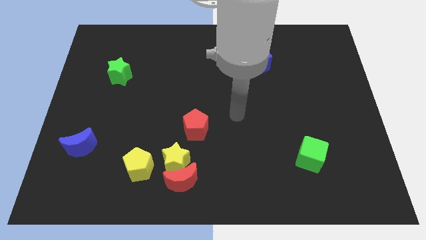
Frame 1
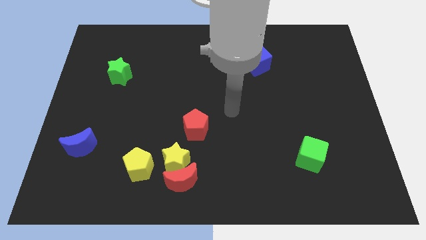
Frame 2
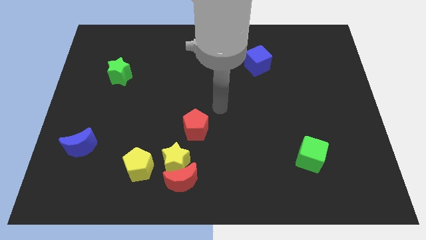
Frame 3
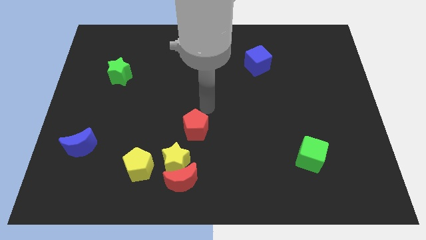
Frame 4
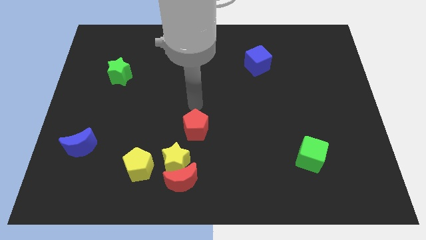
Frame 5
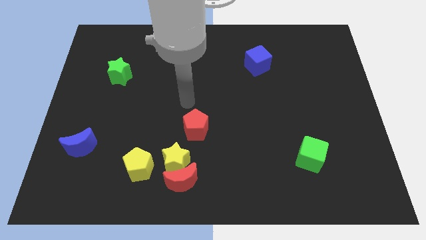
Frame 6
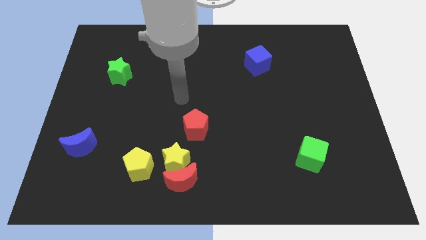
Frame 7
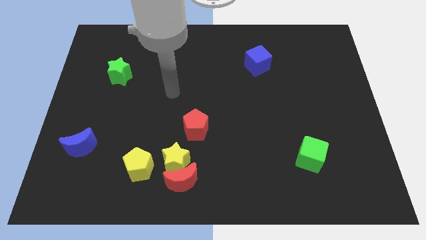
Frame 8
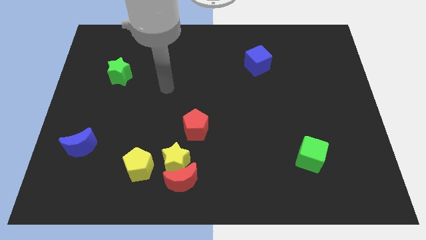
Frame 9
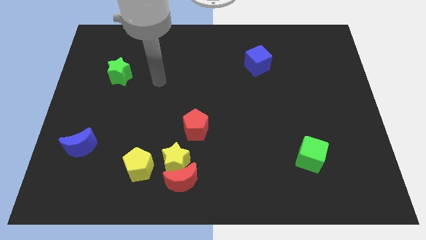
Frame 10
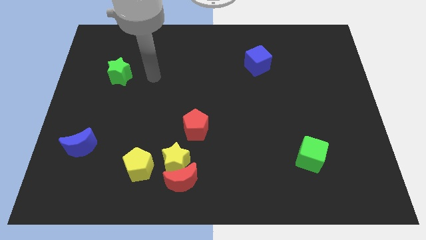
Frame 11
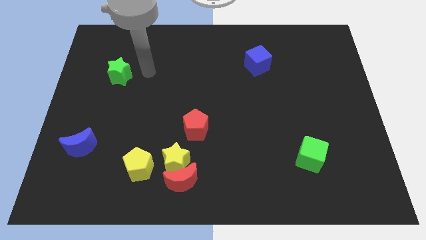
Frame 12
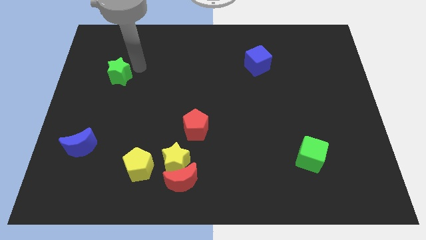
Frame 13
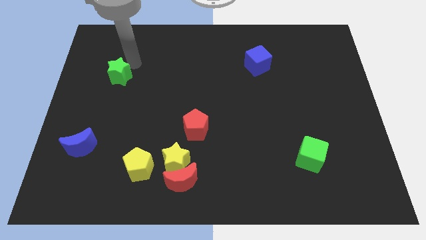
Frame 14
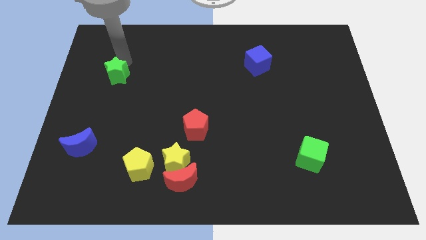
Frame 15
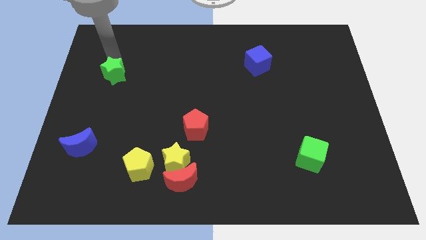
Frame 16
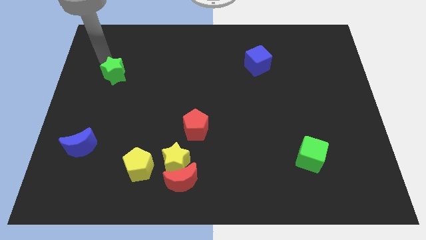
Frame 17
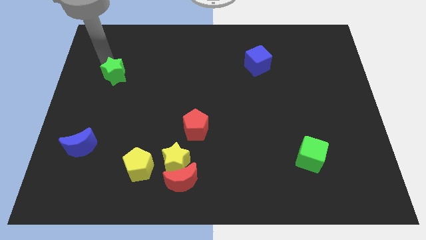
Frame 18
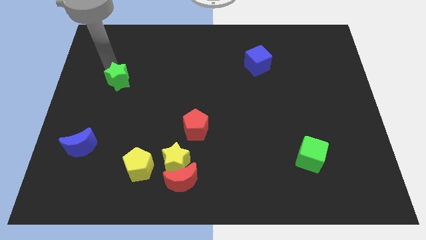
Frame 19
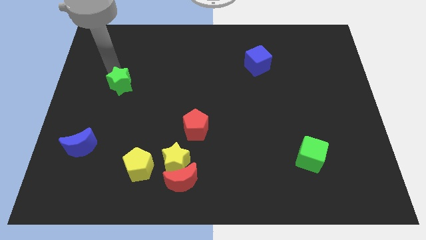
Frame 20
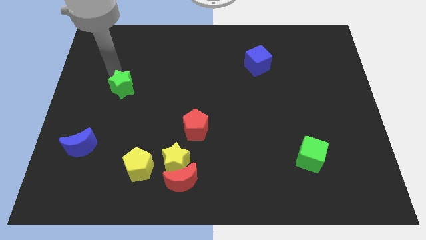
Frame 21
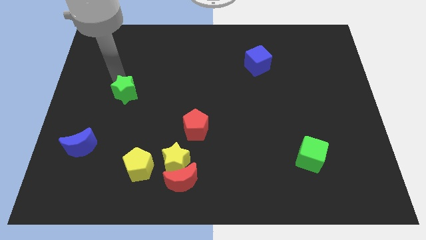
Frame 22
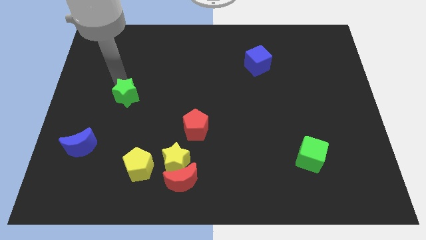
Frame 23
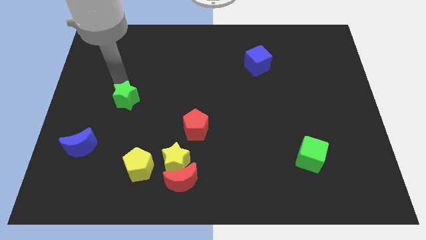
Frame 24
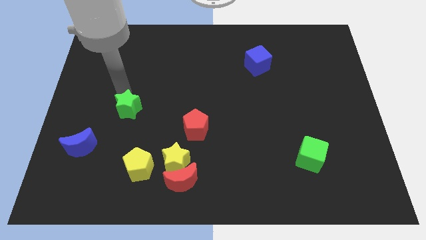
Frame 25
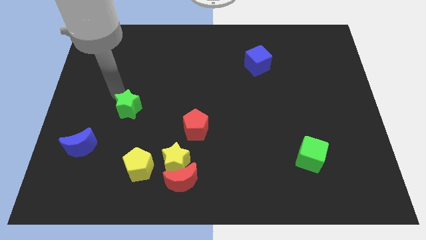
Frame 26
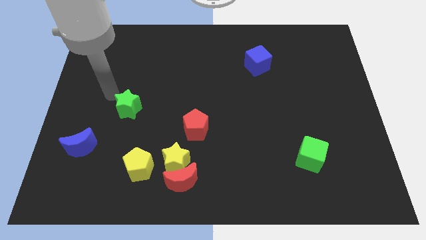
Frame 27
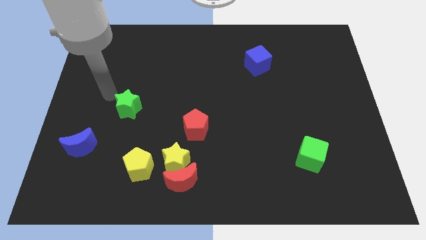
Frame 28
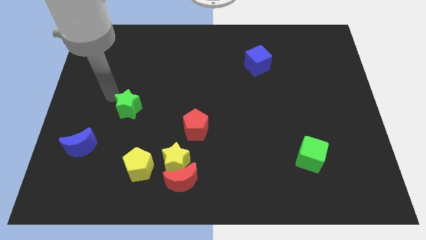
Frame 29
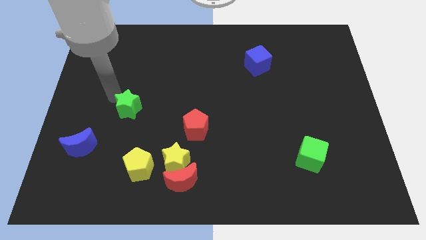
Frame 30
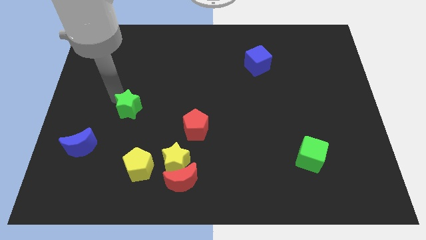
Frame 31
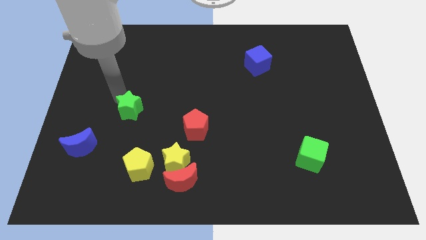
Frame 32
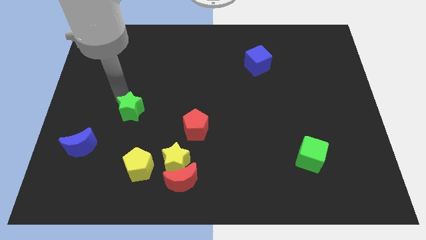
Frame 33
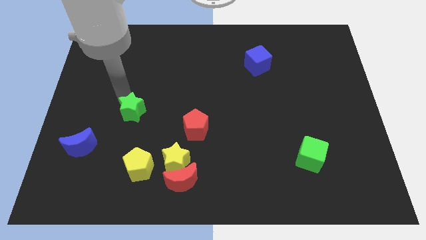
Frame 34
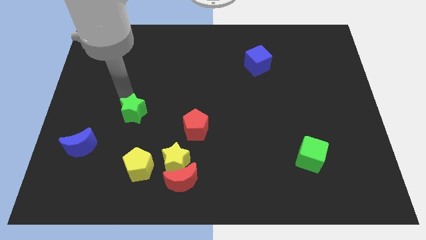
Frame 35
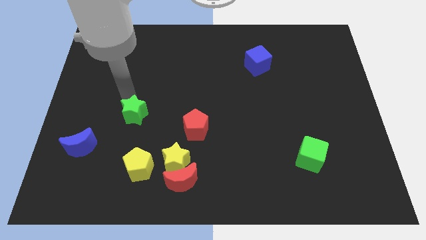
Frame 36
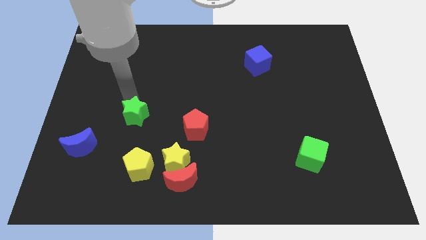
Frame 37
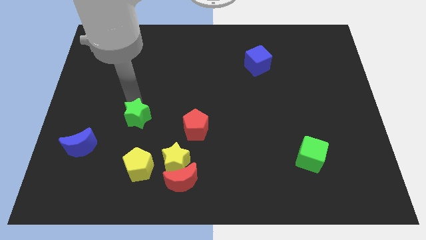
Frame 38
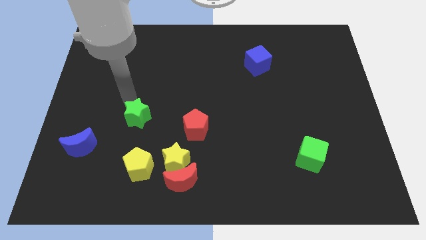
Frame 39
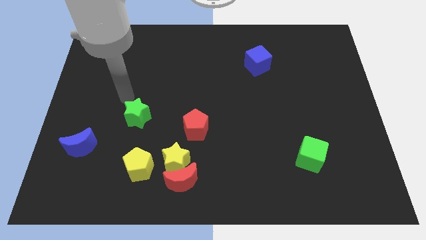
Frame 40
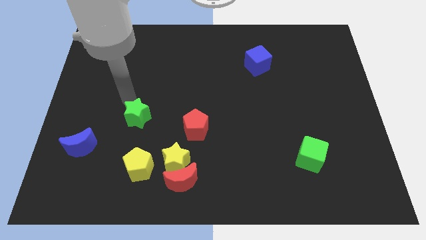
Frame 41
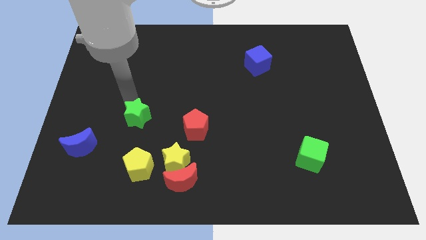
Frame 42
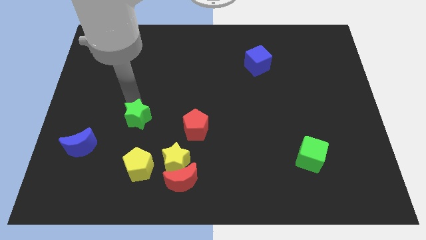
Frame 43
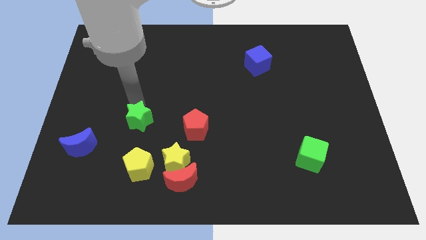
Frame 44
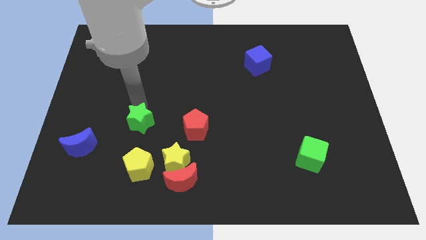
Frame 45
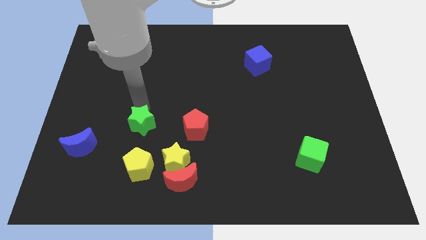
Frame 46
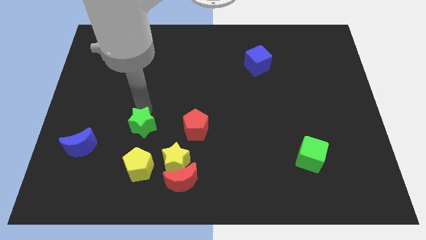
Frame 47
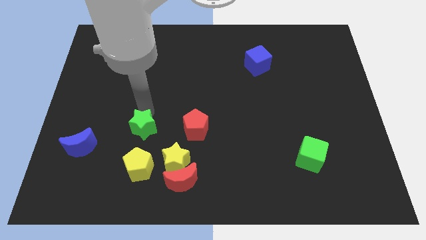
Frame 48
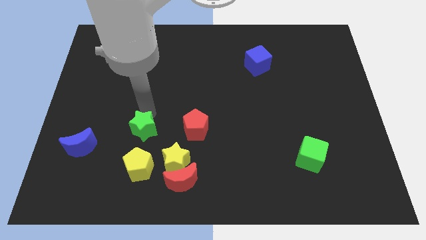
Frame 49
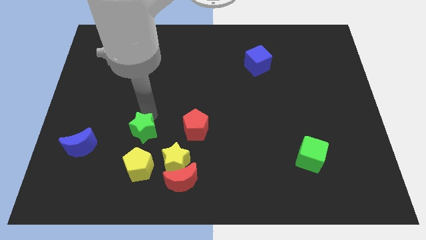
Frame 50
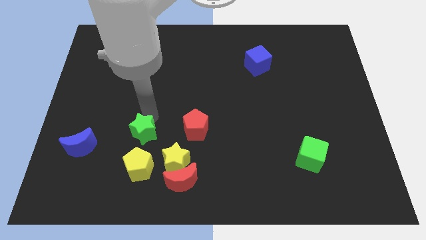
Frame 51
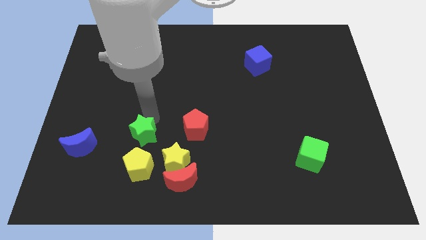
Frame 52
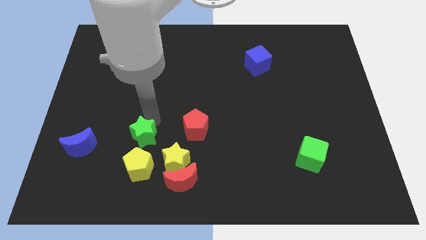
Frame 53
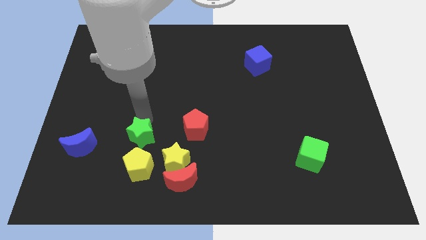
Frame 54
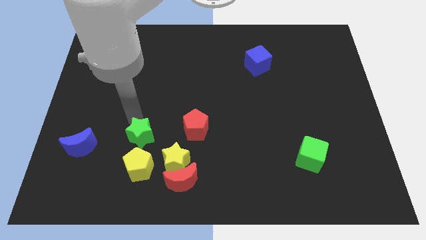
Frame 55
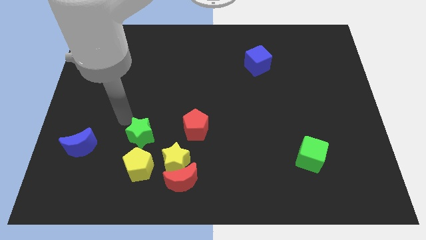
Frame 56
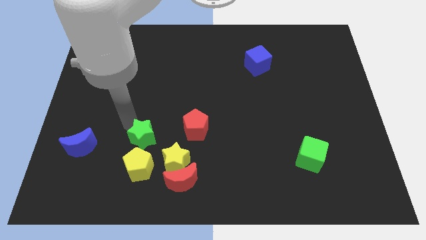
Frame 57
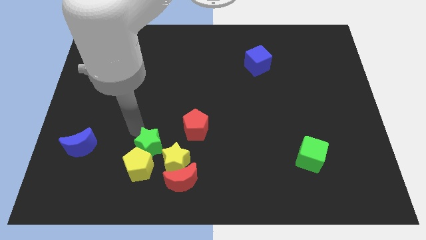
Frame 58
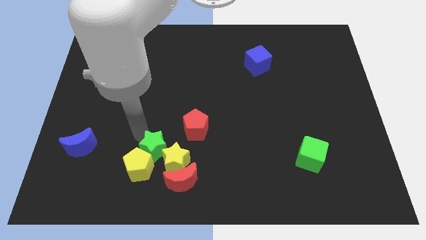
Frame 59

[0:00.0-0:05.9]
slide the green star close to the yellow star

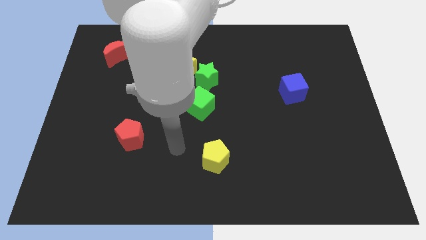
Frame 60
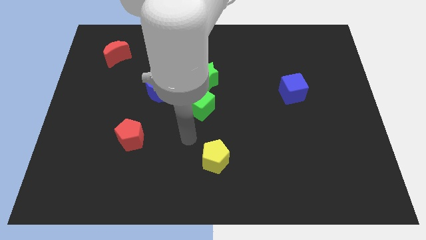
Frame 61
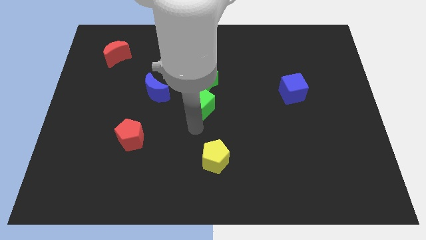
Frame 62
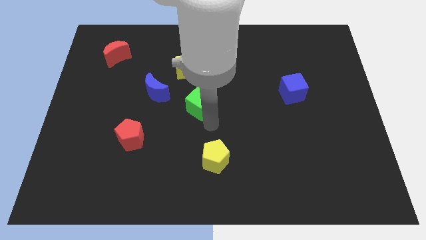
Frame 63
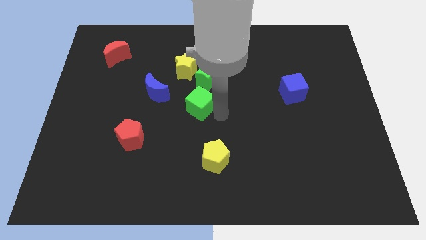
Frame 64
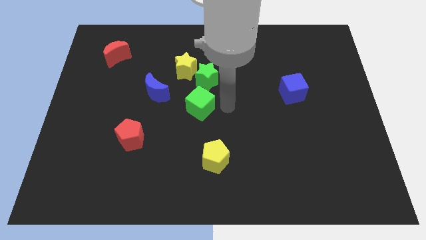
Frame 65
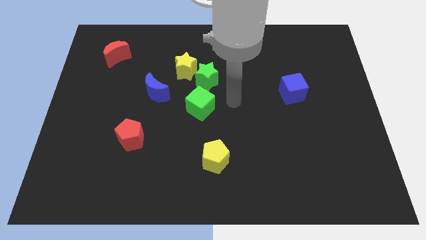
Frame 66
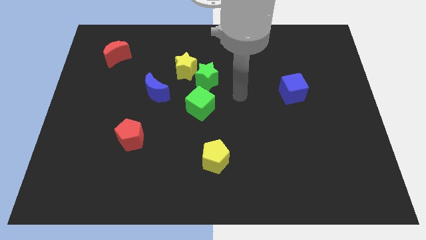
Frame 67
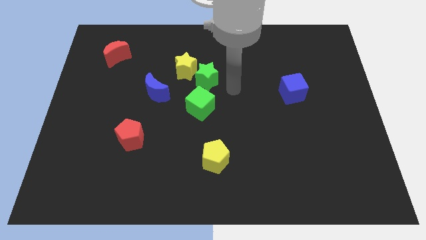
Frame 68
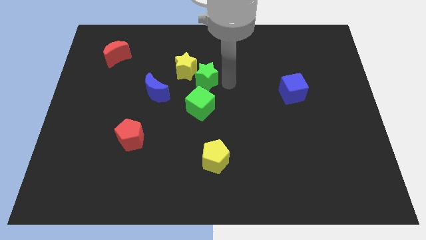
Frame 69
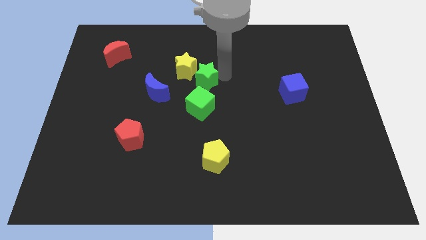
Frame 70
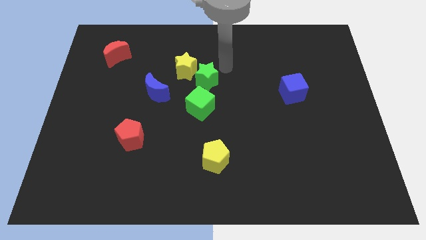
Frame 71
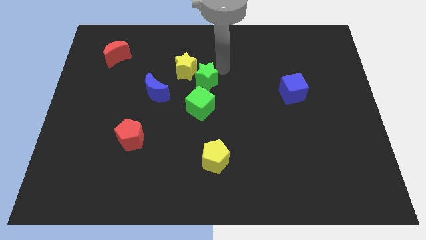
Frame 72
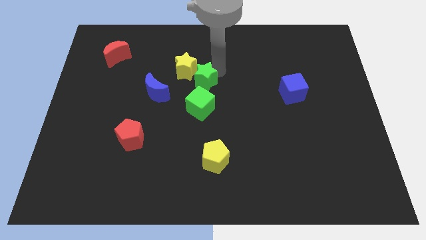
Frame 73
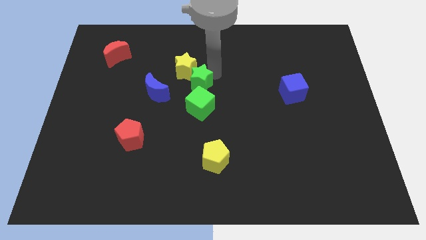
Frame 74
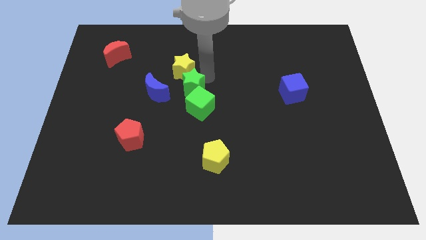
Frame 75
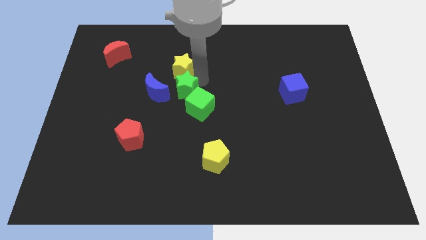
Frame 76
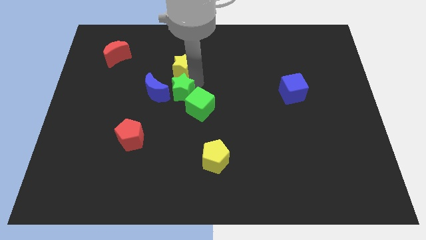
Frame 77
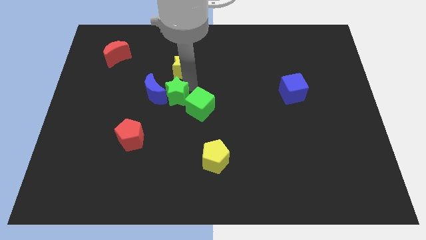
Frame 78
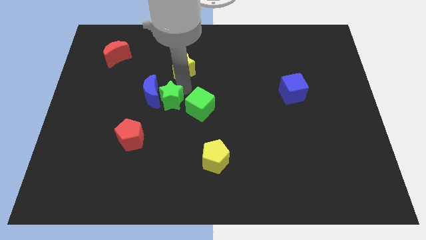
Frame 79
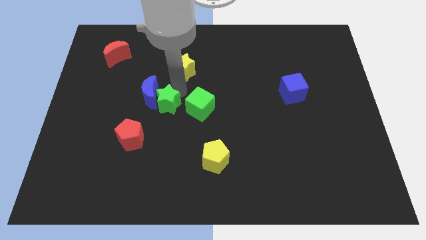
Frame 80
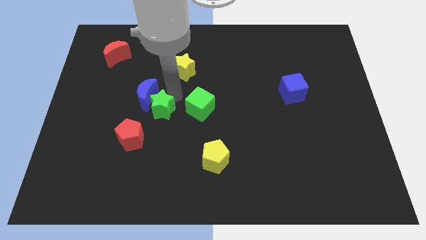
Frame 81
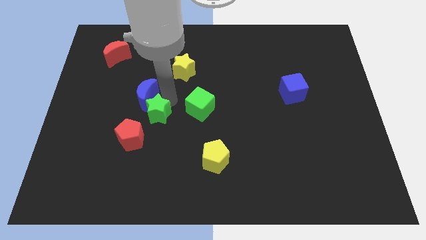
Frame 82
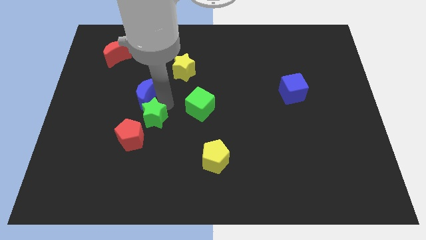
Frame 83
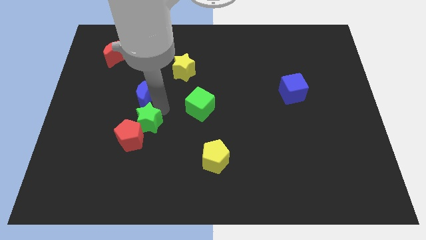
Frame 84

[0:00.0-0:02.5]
slide the green star to the red pentagon
